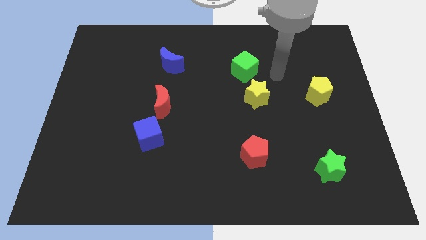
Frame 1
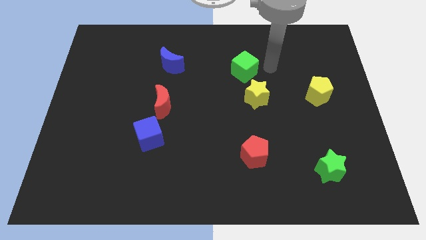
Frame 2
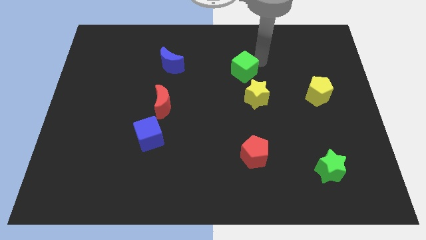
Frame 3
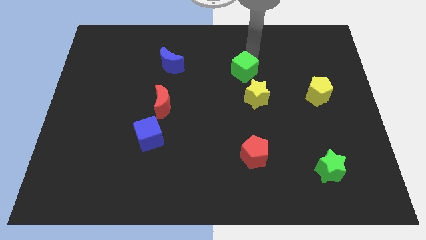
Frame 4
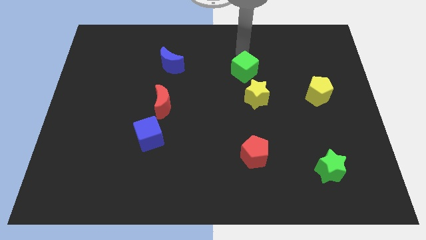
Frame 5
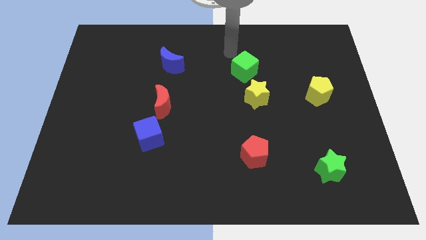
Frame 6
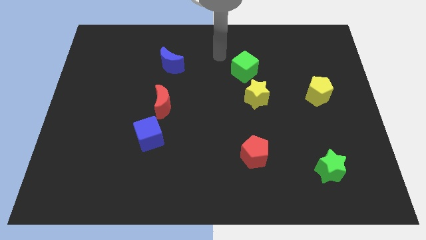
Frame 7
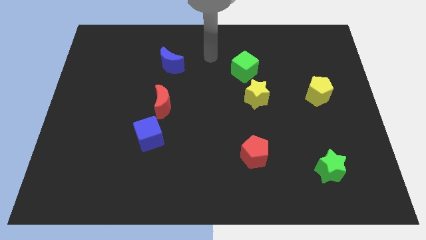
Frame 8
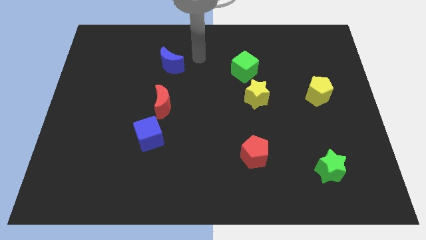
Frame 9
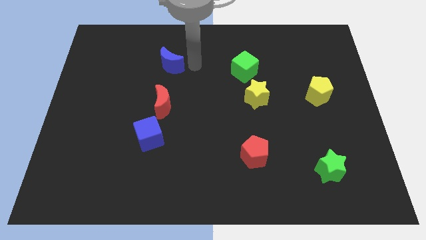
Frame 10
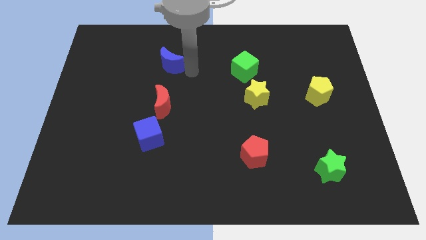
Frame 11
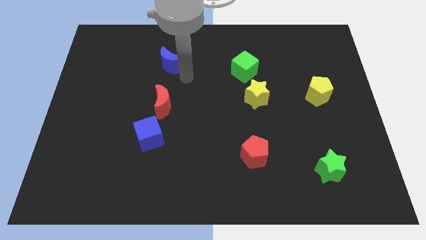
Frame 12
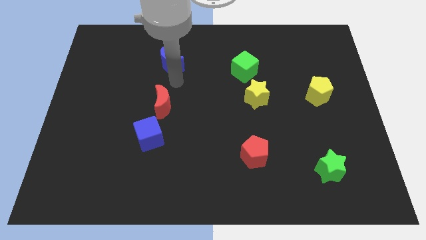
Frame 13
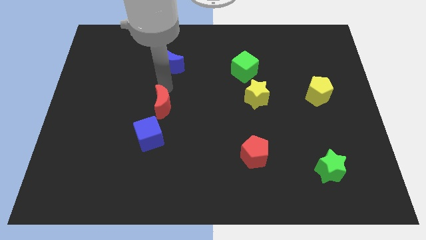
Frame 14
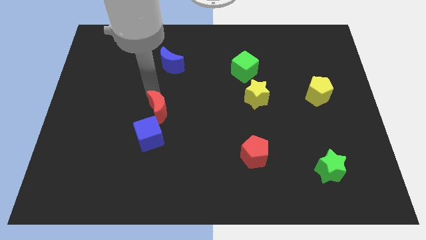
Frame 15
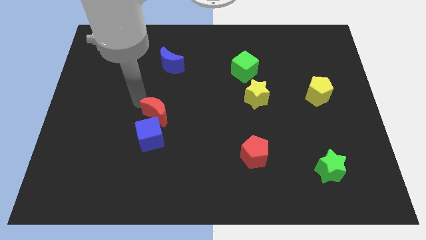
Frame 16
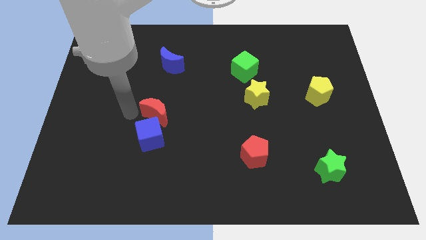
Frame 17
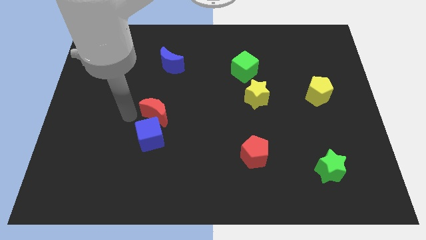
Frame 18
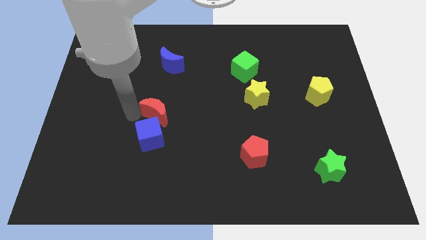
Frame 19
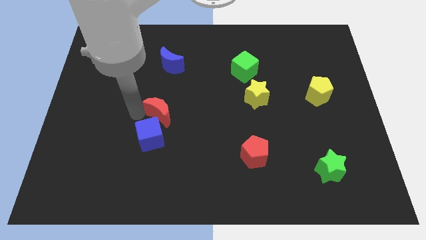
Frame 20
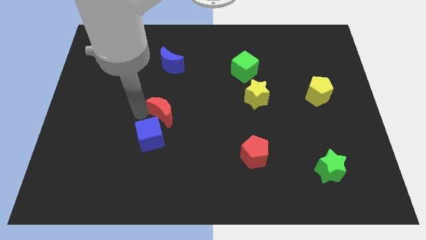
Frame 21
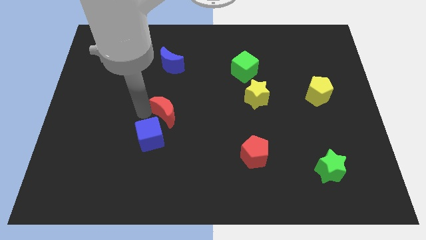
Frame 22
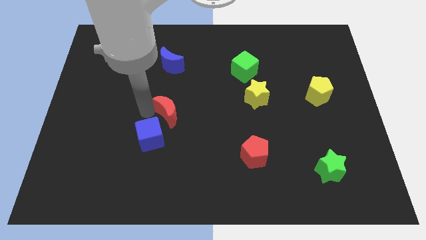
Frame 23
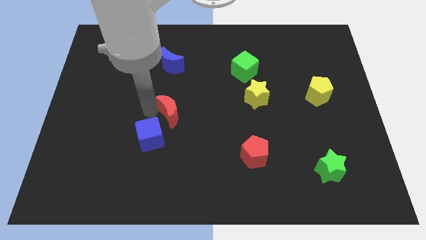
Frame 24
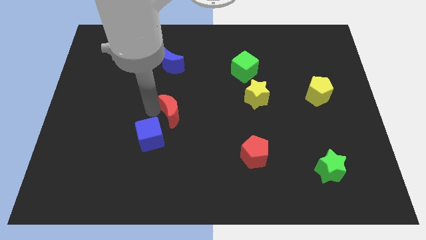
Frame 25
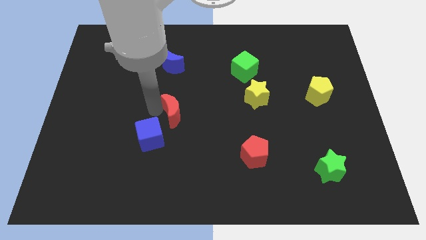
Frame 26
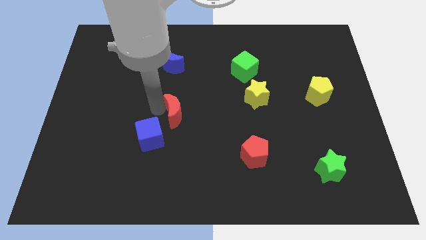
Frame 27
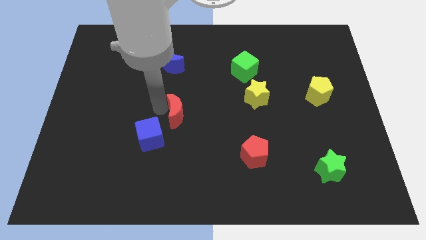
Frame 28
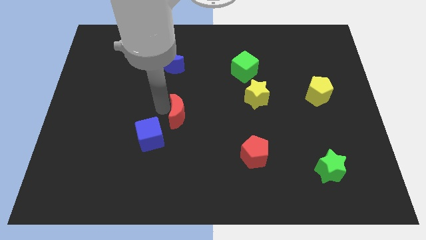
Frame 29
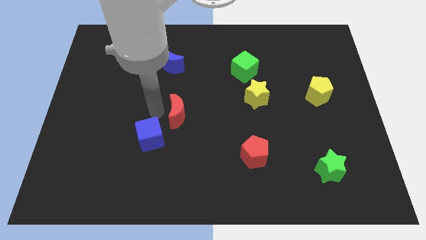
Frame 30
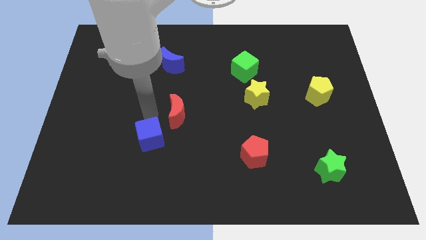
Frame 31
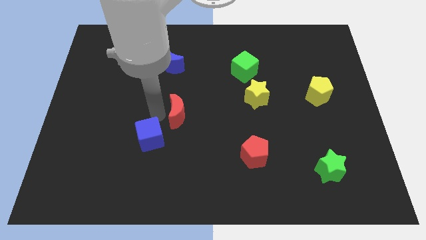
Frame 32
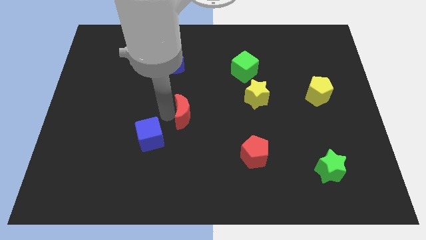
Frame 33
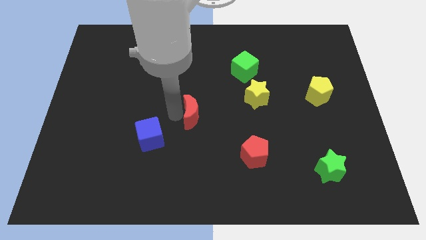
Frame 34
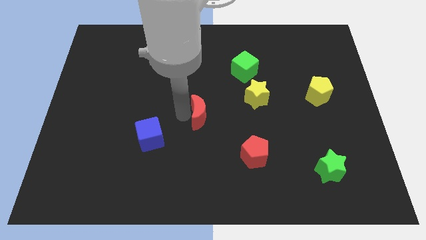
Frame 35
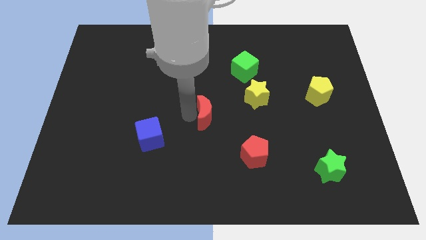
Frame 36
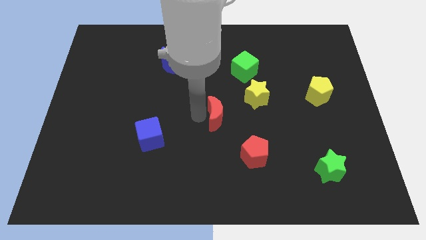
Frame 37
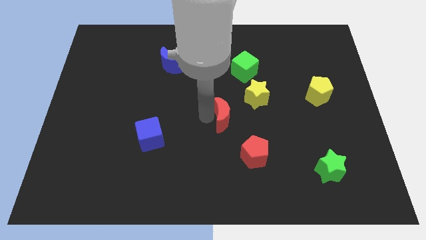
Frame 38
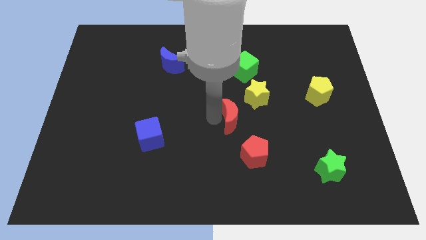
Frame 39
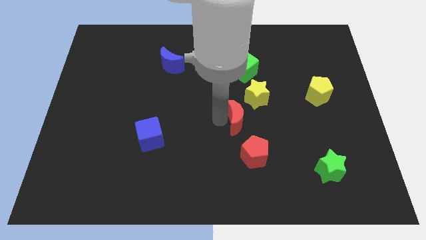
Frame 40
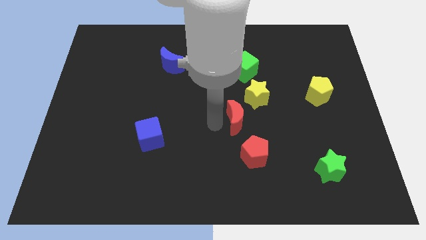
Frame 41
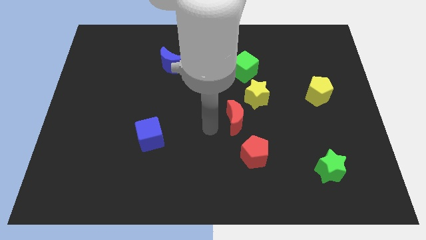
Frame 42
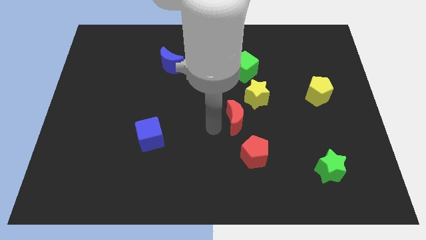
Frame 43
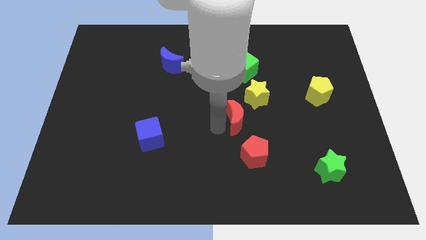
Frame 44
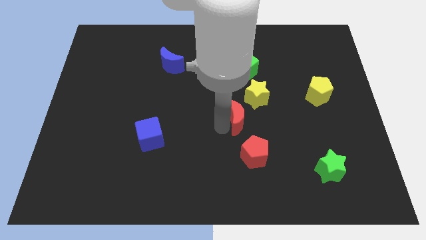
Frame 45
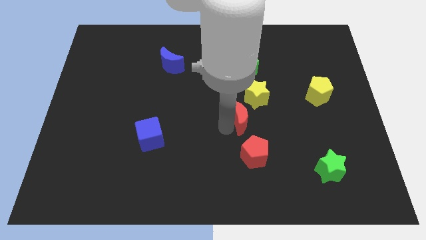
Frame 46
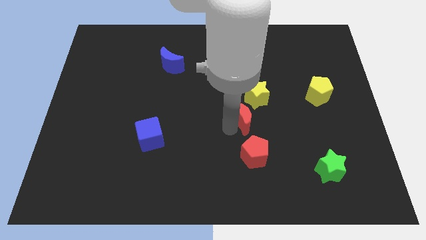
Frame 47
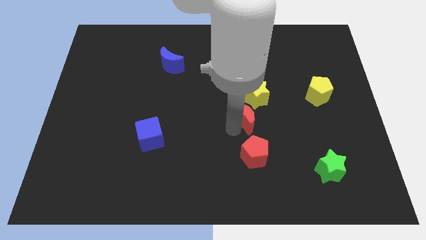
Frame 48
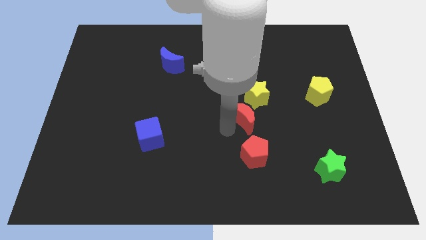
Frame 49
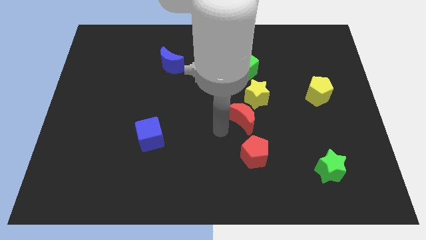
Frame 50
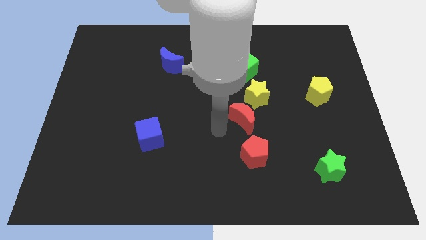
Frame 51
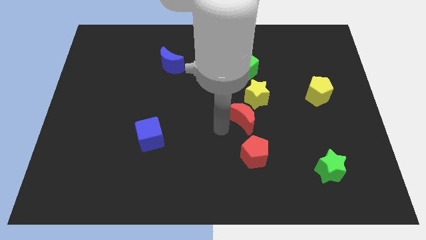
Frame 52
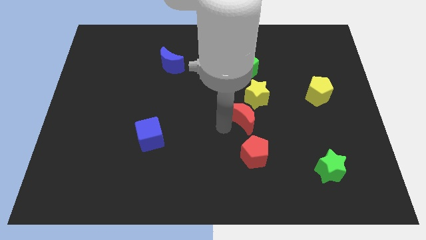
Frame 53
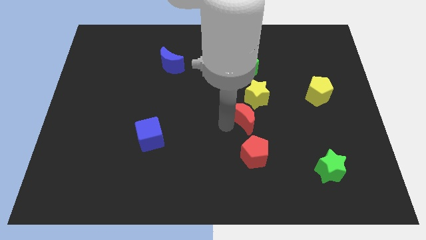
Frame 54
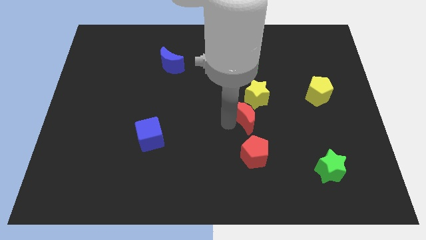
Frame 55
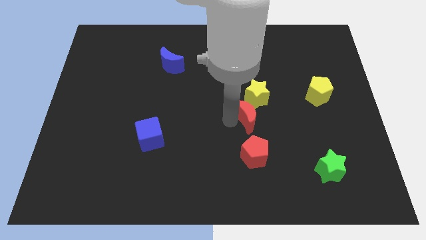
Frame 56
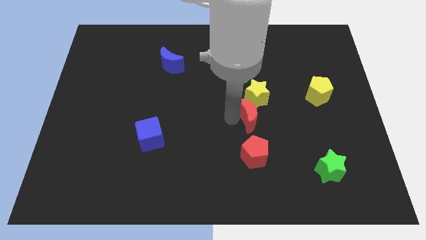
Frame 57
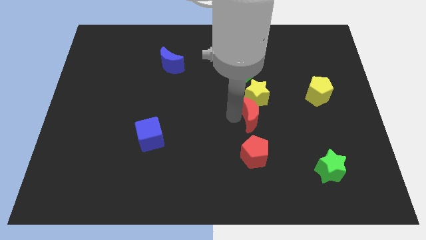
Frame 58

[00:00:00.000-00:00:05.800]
move the red moon right

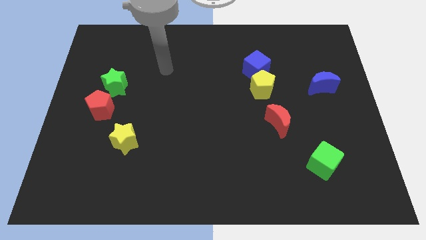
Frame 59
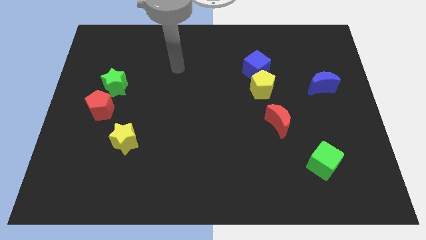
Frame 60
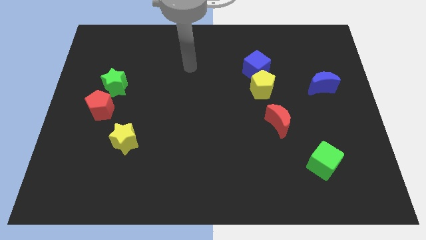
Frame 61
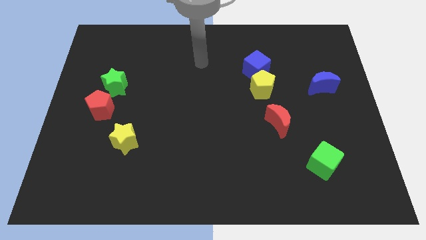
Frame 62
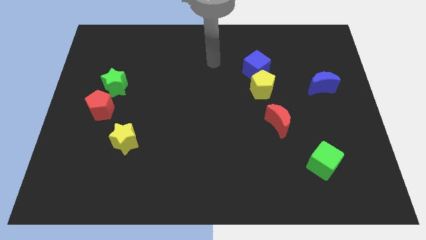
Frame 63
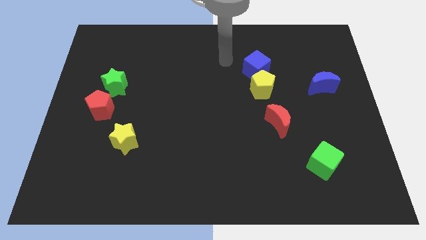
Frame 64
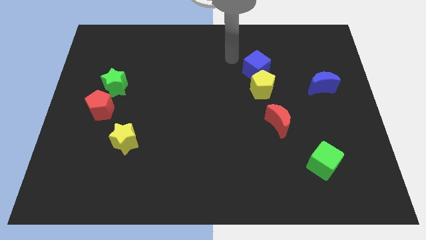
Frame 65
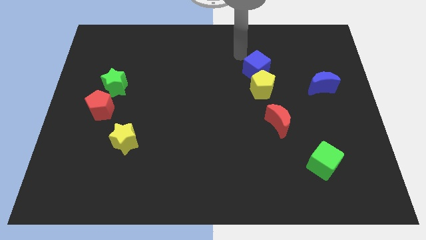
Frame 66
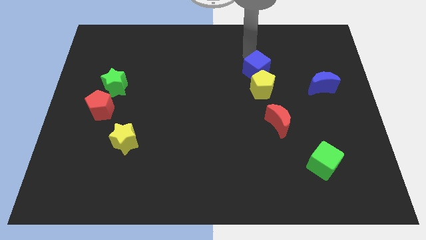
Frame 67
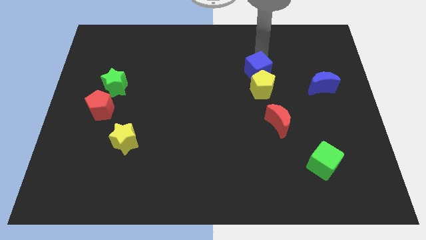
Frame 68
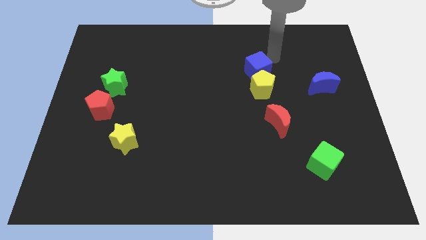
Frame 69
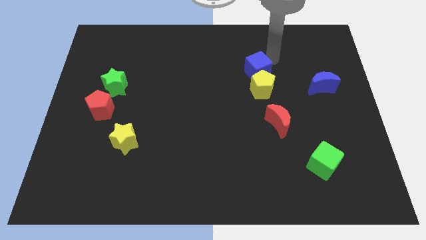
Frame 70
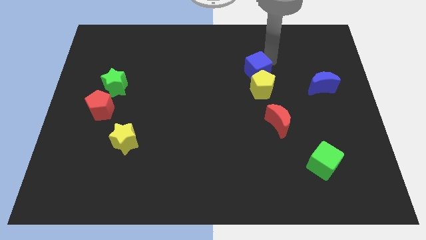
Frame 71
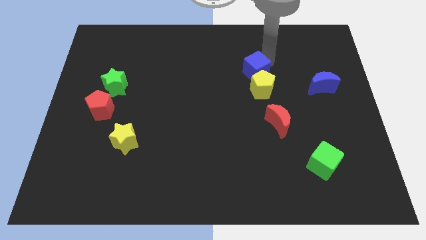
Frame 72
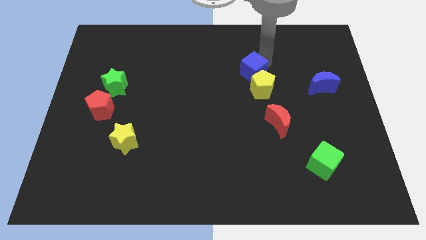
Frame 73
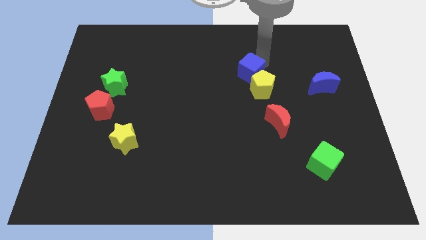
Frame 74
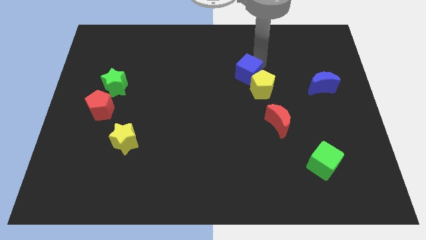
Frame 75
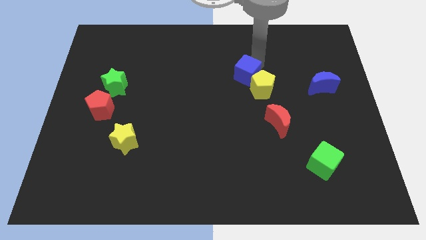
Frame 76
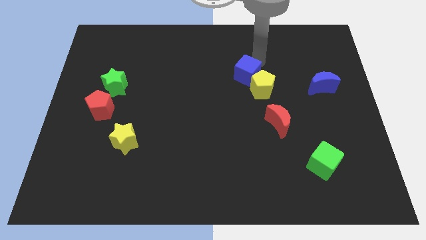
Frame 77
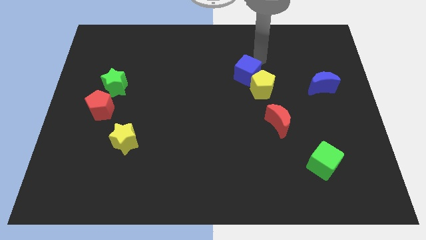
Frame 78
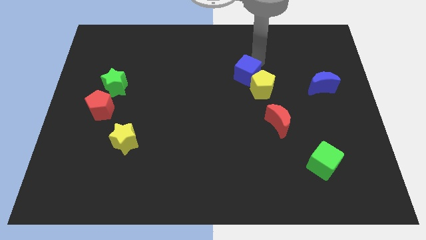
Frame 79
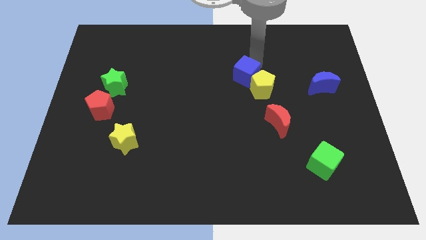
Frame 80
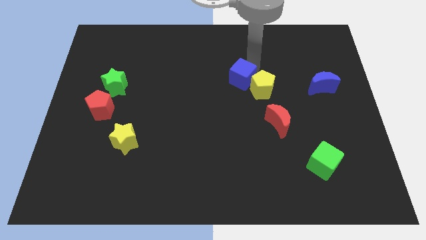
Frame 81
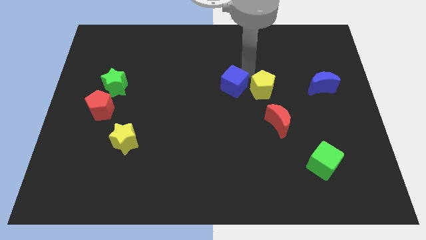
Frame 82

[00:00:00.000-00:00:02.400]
move the blue cube diagonally down and left a bit
